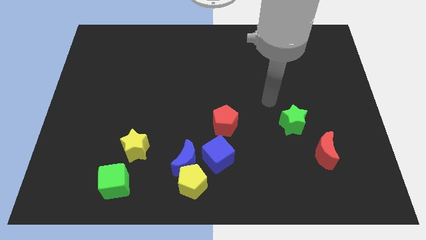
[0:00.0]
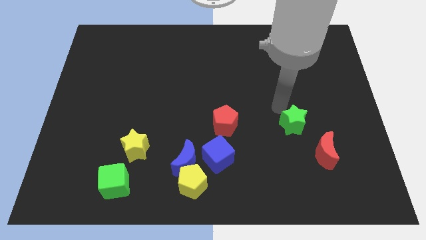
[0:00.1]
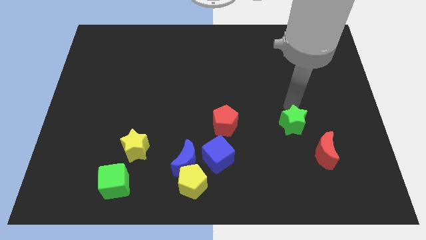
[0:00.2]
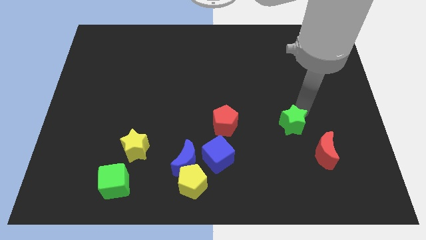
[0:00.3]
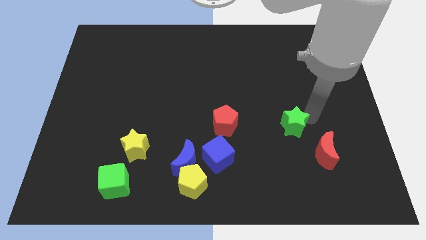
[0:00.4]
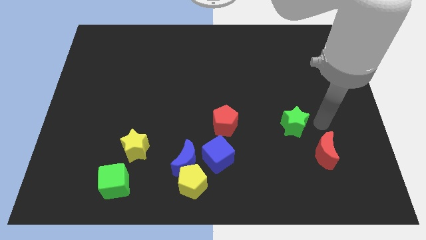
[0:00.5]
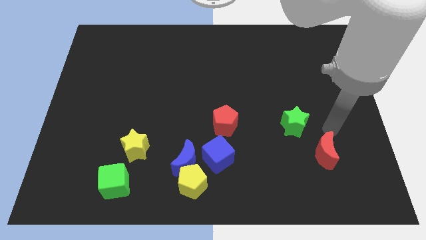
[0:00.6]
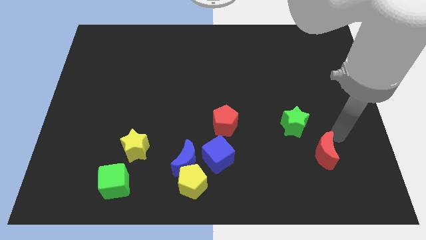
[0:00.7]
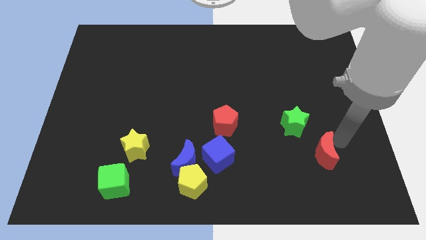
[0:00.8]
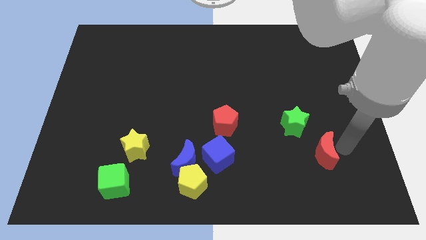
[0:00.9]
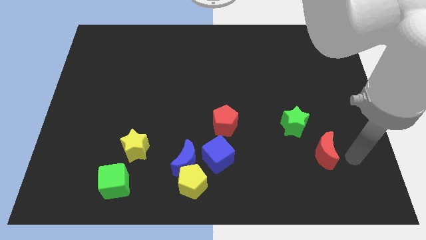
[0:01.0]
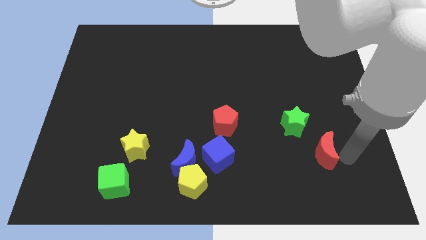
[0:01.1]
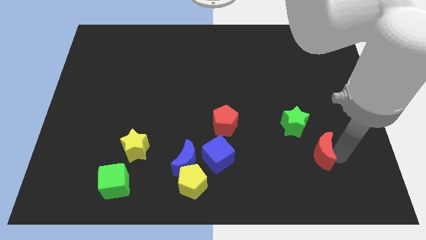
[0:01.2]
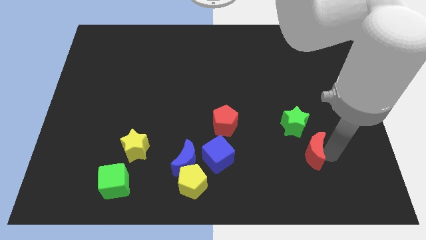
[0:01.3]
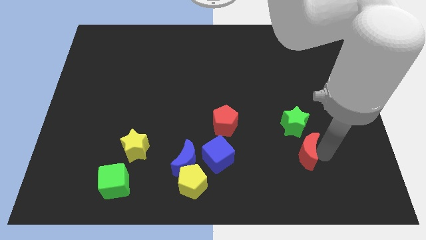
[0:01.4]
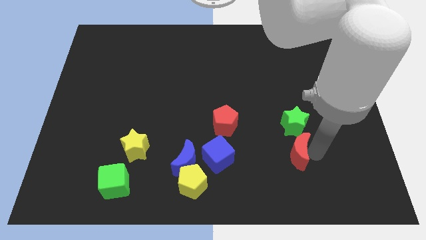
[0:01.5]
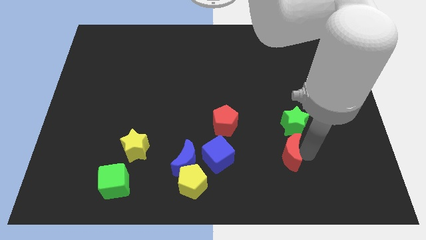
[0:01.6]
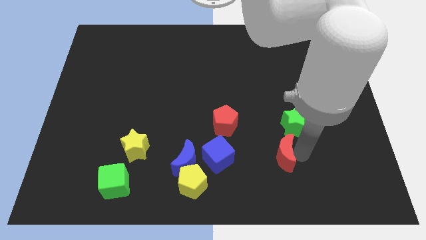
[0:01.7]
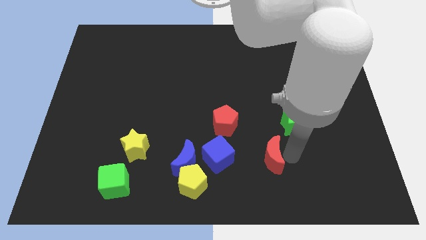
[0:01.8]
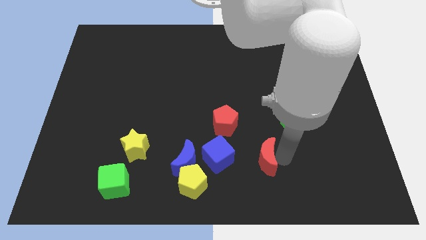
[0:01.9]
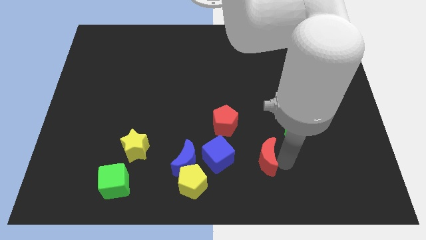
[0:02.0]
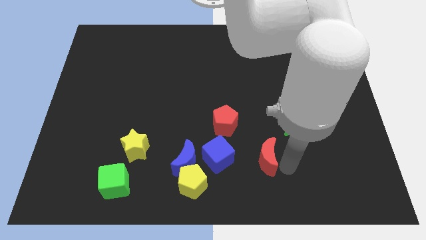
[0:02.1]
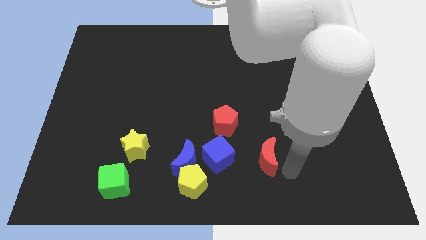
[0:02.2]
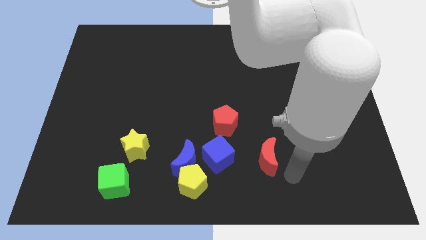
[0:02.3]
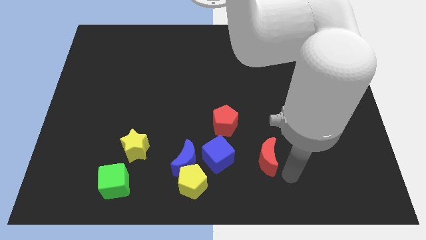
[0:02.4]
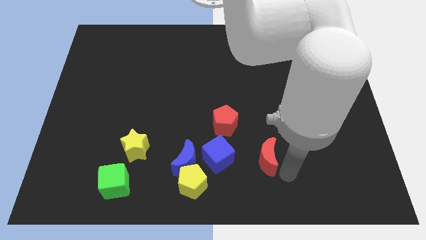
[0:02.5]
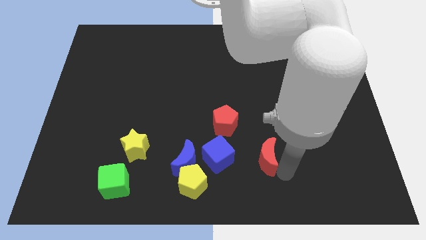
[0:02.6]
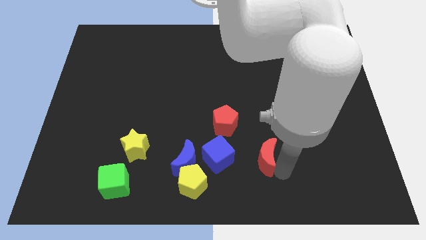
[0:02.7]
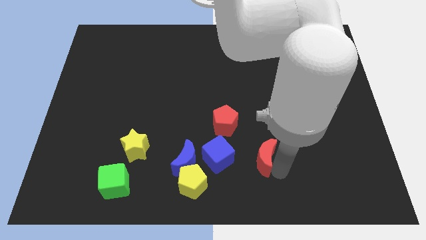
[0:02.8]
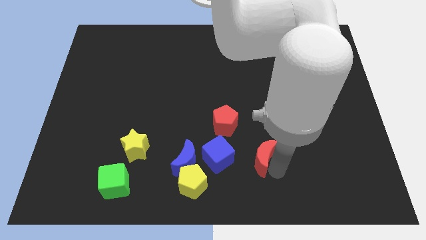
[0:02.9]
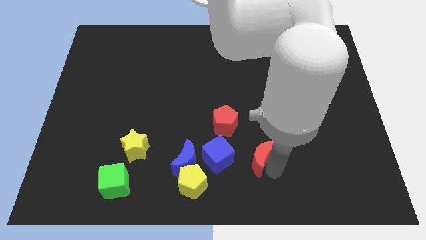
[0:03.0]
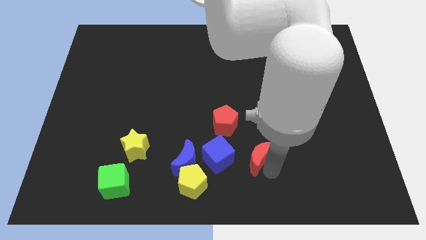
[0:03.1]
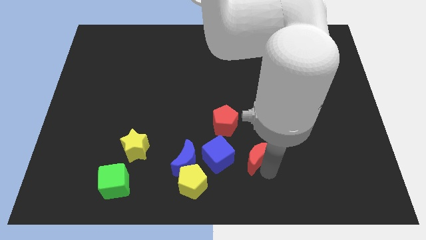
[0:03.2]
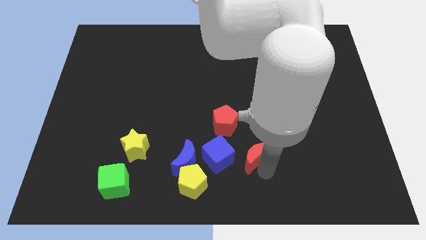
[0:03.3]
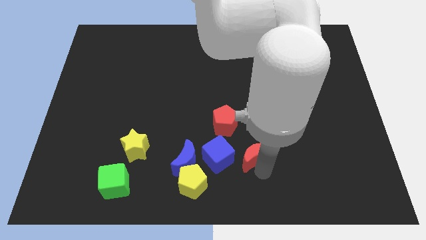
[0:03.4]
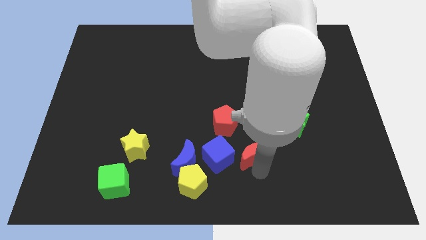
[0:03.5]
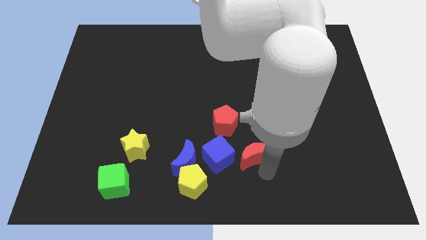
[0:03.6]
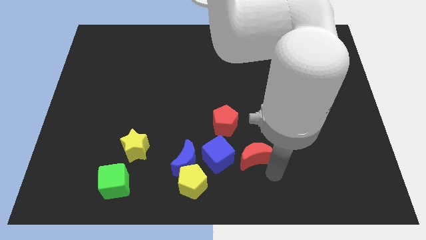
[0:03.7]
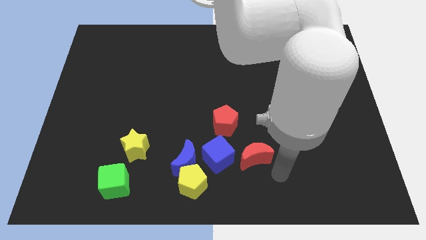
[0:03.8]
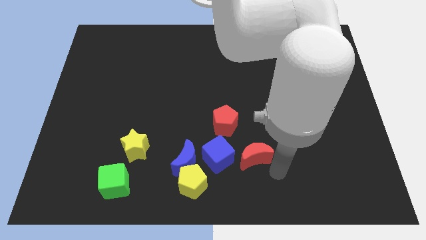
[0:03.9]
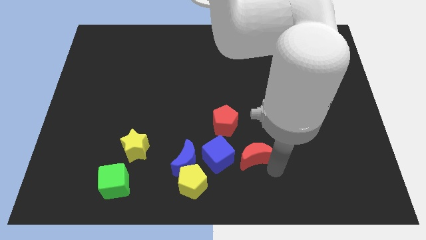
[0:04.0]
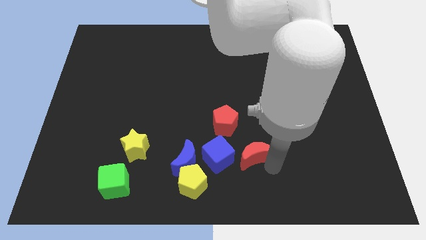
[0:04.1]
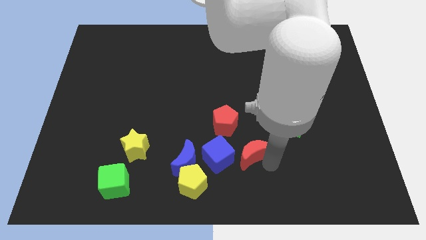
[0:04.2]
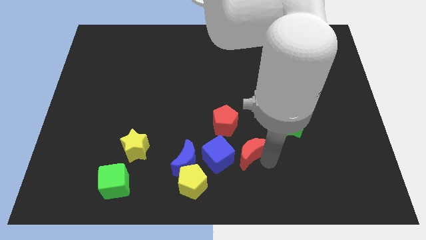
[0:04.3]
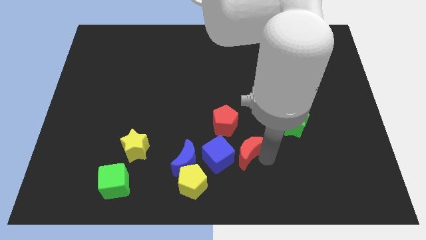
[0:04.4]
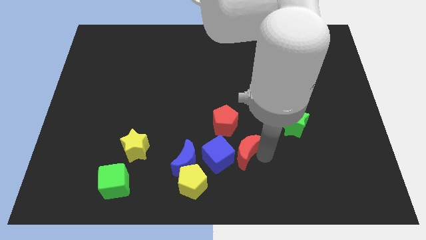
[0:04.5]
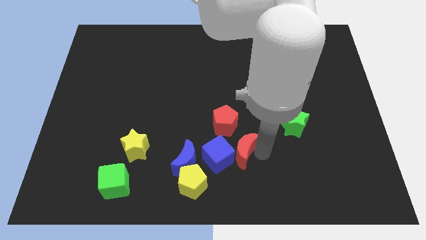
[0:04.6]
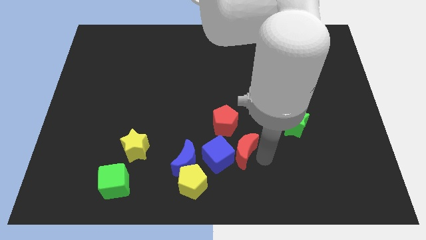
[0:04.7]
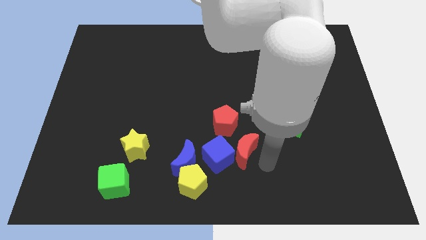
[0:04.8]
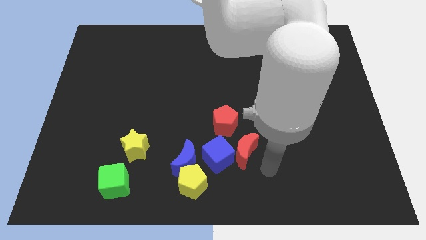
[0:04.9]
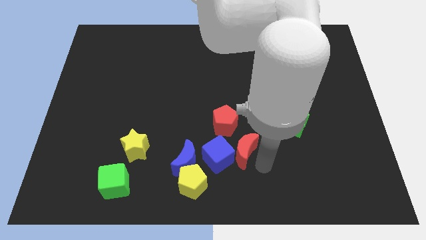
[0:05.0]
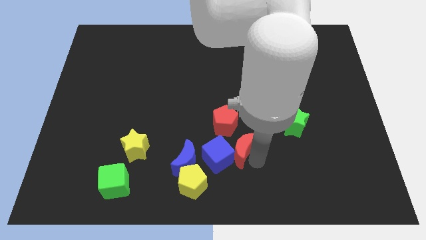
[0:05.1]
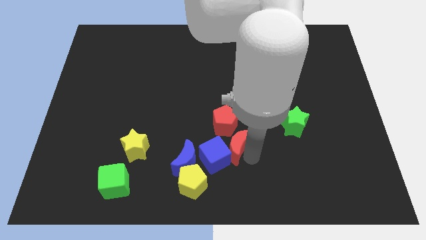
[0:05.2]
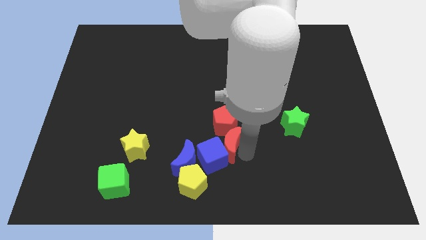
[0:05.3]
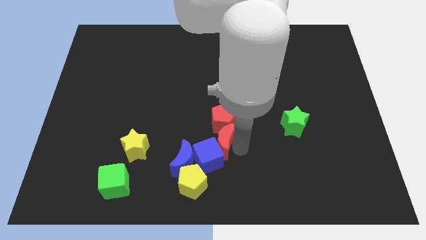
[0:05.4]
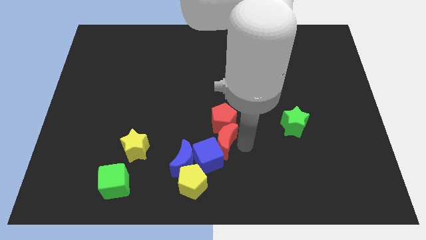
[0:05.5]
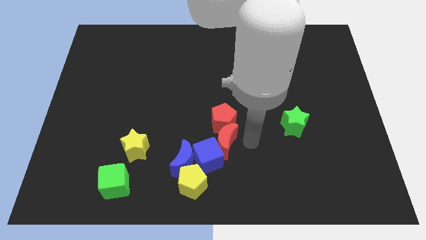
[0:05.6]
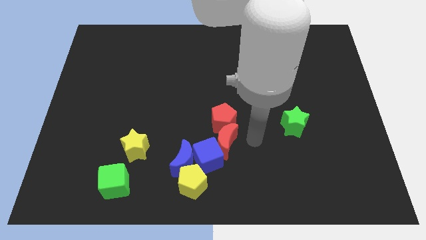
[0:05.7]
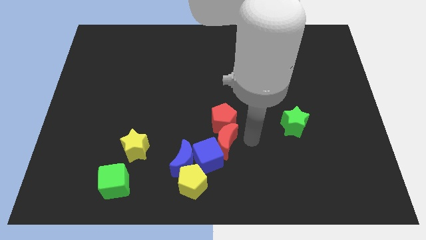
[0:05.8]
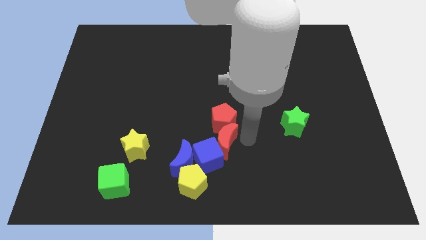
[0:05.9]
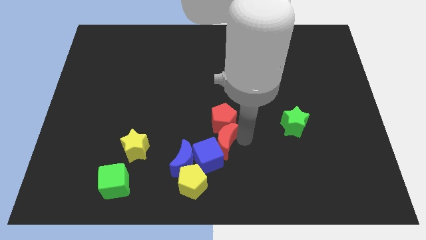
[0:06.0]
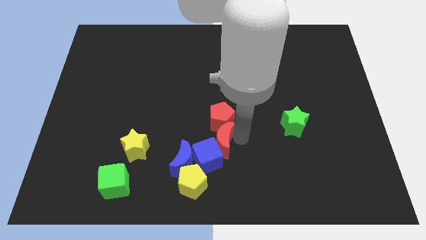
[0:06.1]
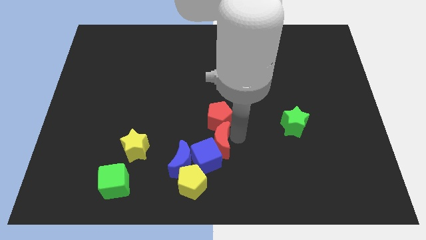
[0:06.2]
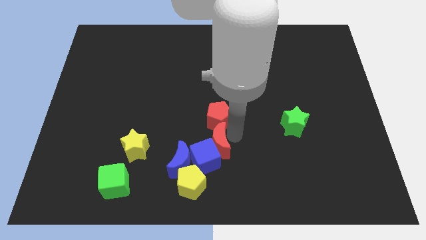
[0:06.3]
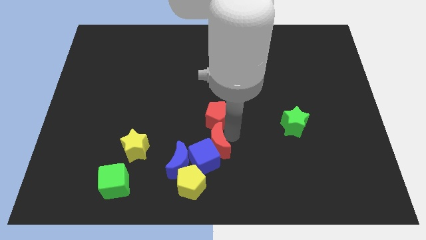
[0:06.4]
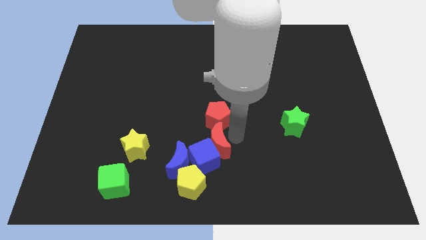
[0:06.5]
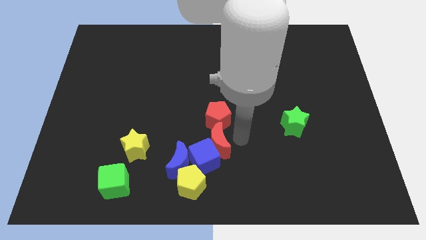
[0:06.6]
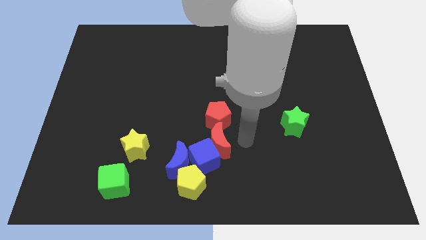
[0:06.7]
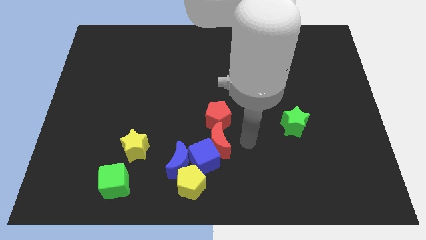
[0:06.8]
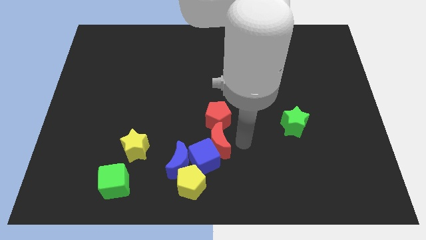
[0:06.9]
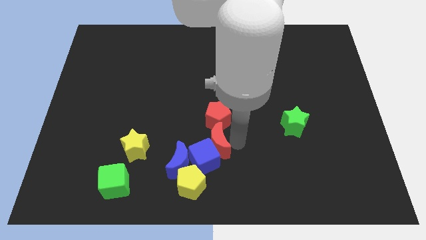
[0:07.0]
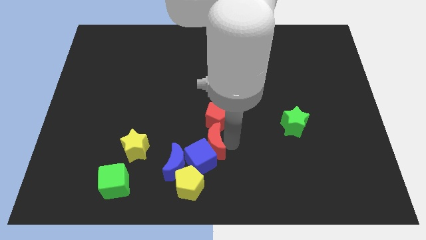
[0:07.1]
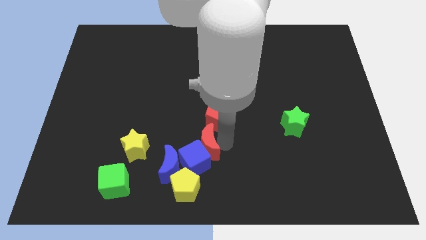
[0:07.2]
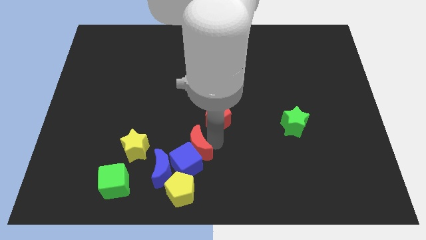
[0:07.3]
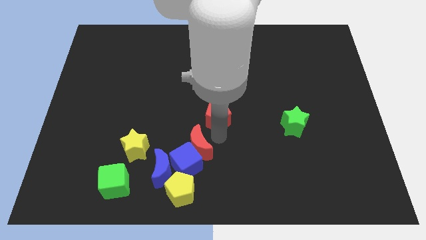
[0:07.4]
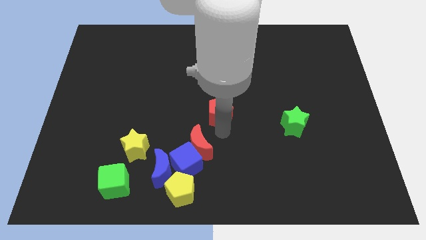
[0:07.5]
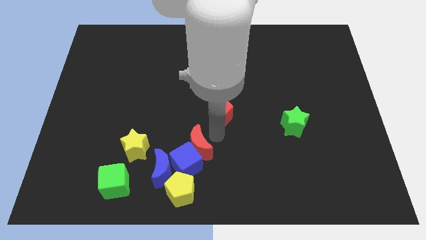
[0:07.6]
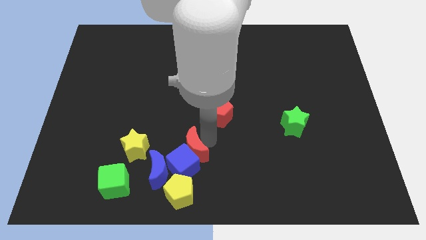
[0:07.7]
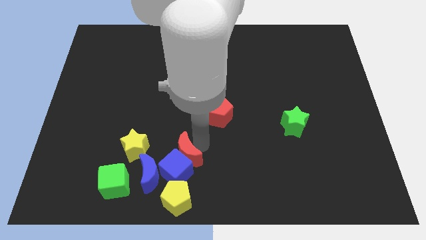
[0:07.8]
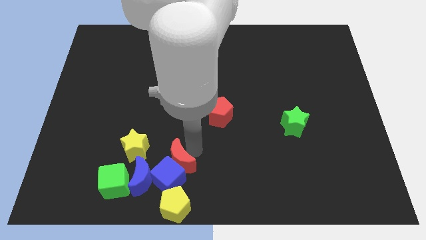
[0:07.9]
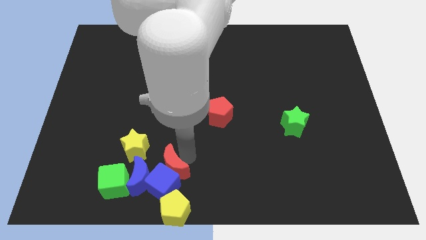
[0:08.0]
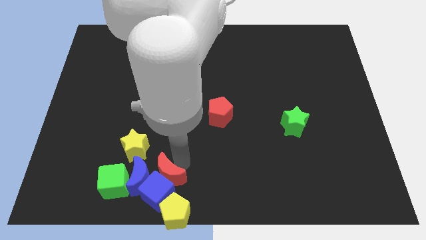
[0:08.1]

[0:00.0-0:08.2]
put the red moon close to the blue moon
